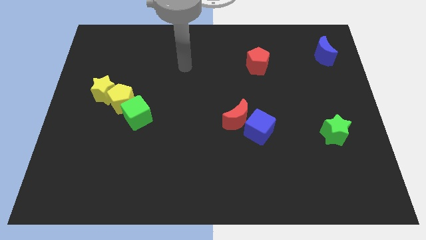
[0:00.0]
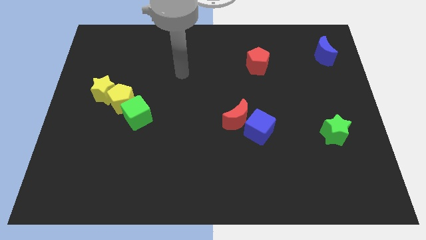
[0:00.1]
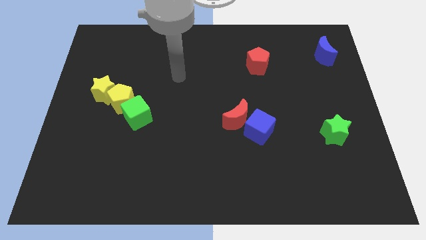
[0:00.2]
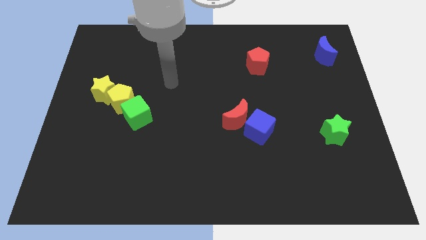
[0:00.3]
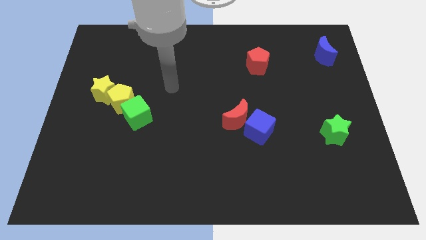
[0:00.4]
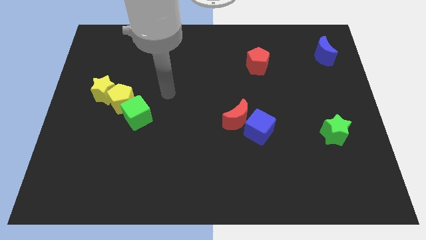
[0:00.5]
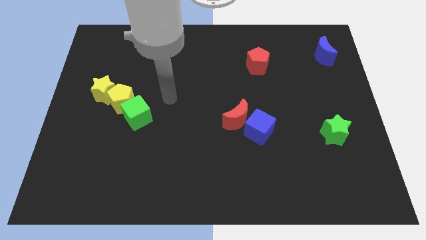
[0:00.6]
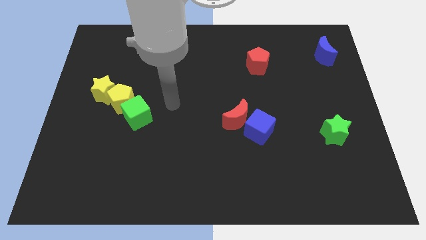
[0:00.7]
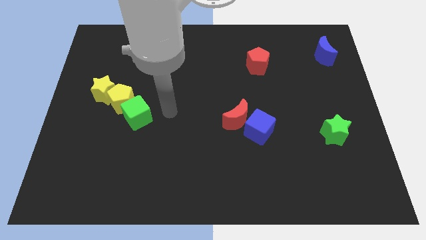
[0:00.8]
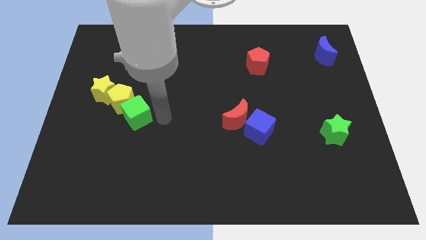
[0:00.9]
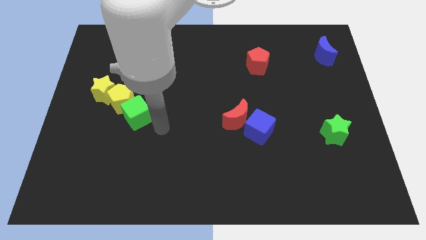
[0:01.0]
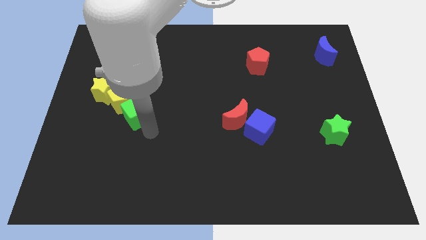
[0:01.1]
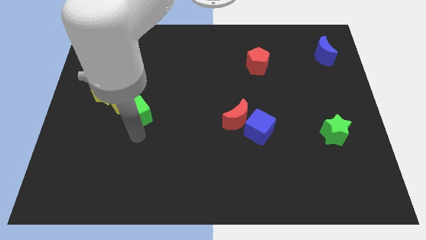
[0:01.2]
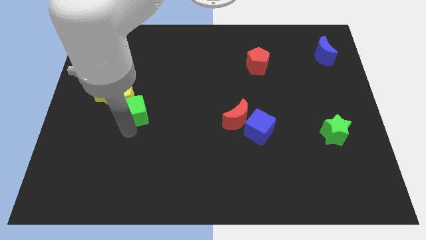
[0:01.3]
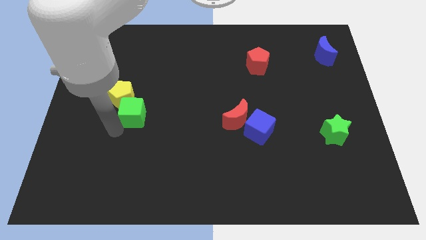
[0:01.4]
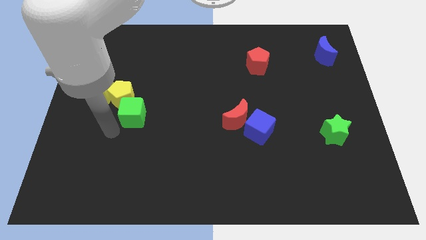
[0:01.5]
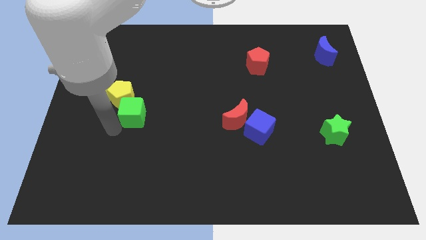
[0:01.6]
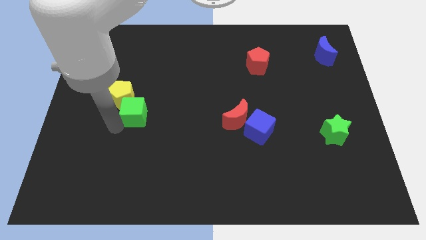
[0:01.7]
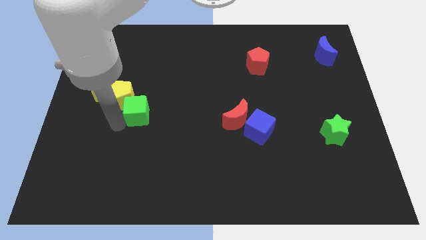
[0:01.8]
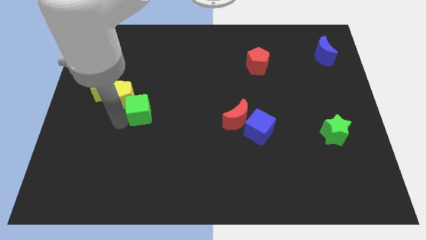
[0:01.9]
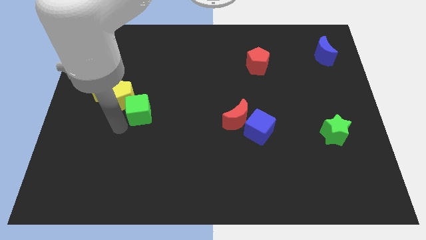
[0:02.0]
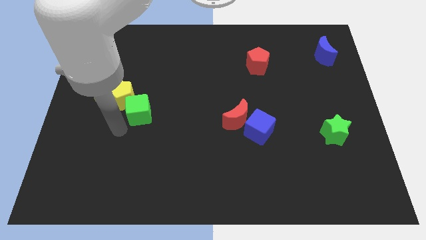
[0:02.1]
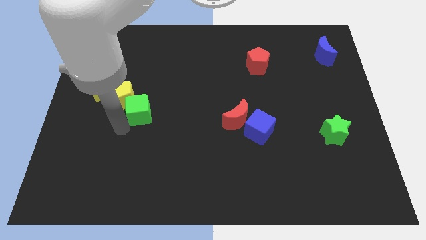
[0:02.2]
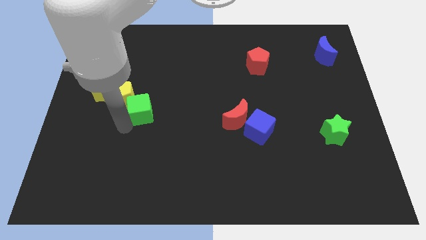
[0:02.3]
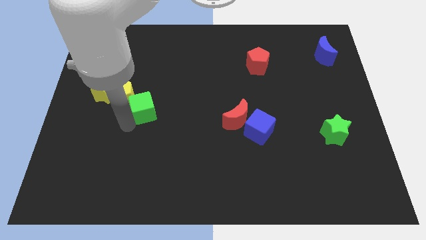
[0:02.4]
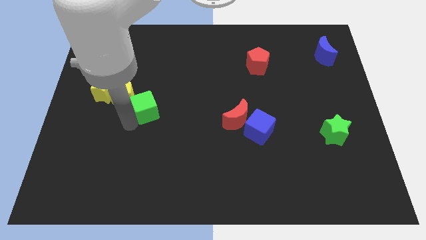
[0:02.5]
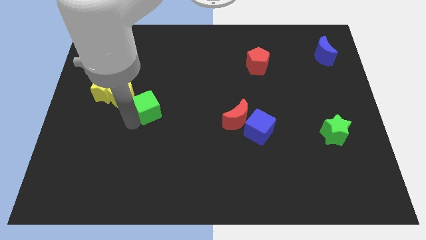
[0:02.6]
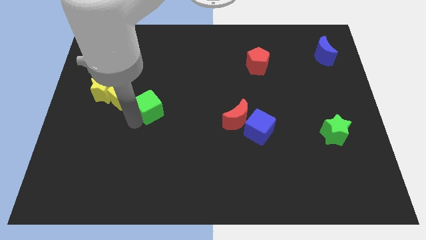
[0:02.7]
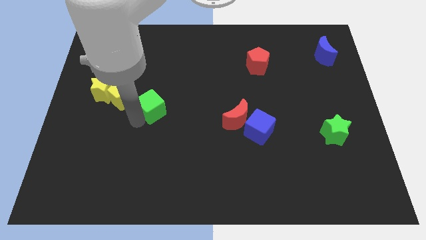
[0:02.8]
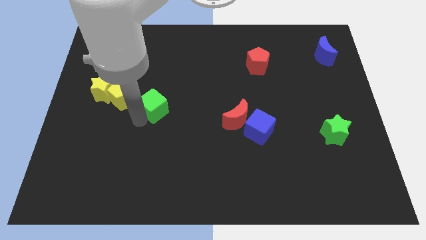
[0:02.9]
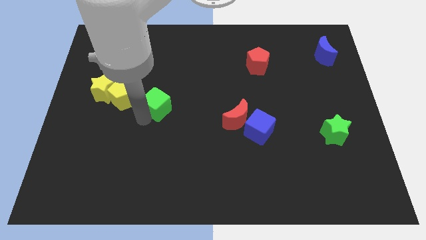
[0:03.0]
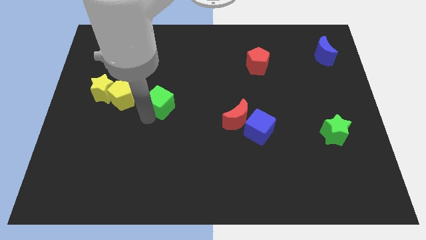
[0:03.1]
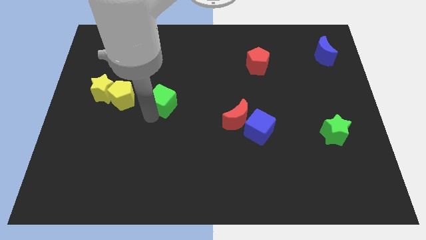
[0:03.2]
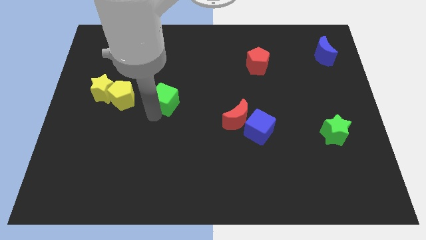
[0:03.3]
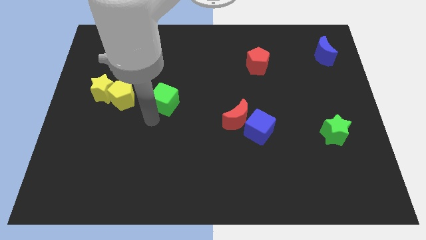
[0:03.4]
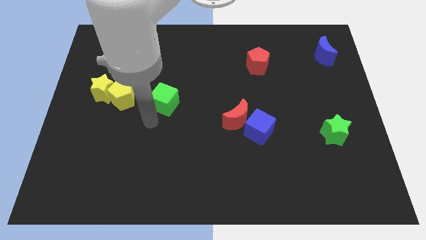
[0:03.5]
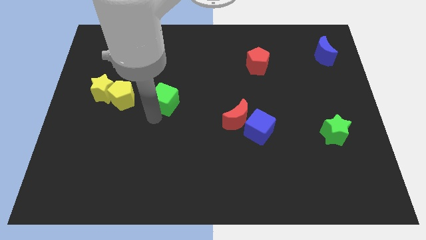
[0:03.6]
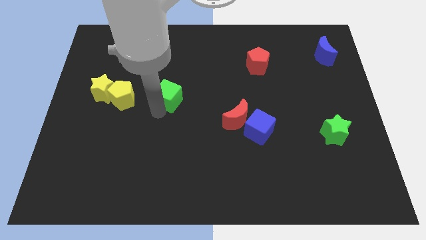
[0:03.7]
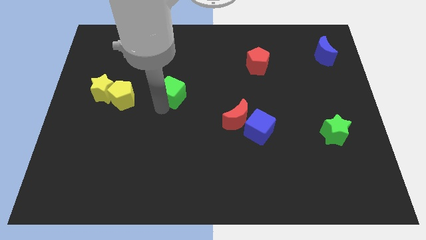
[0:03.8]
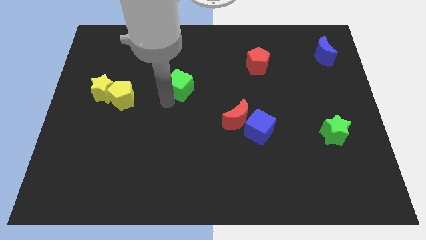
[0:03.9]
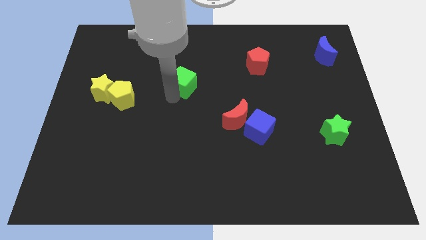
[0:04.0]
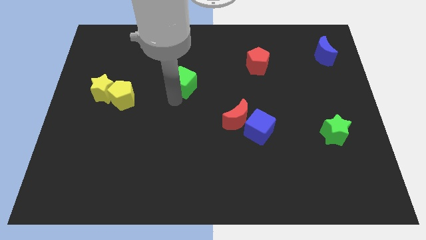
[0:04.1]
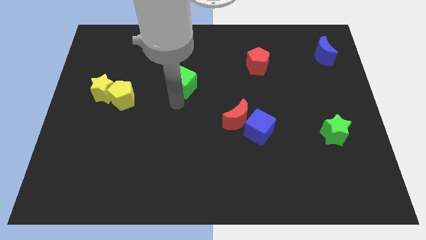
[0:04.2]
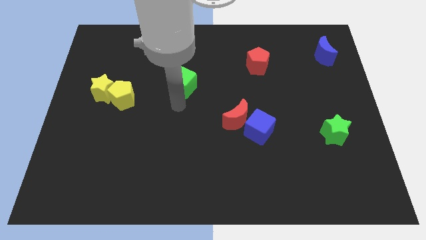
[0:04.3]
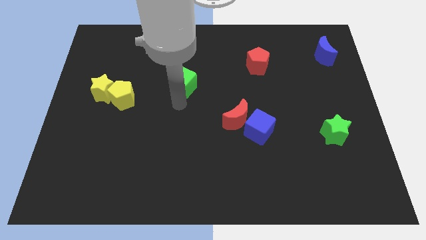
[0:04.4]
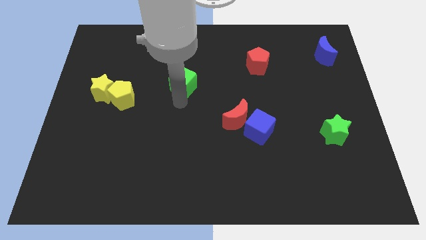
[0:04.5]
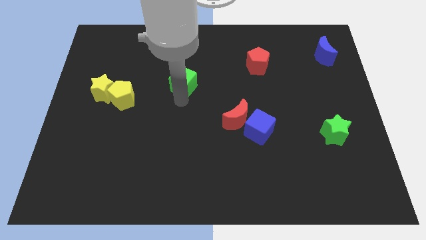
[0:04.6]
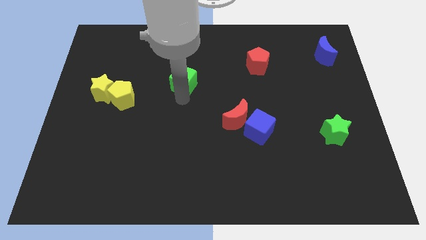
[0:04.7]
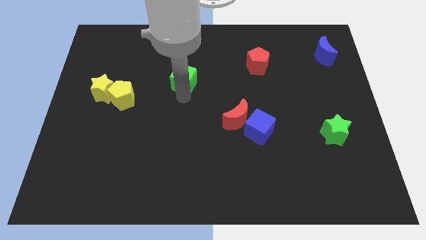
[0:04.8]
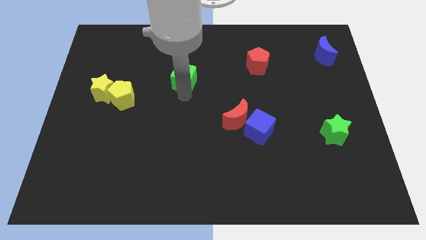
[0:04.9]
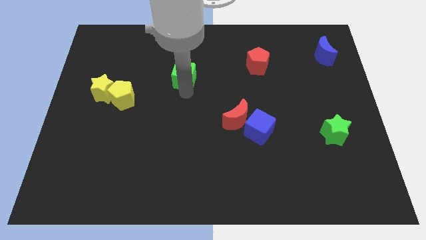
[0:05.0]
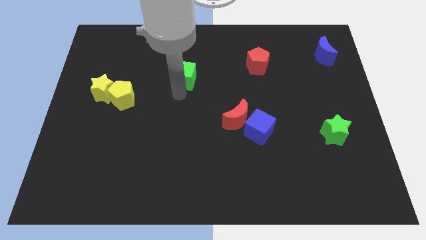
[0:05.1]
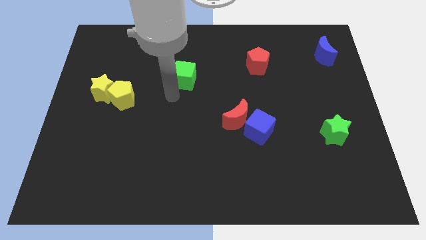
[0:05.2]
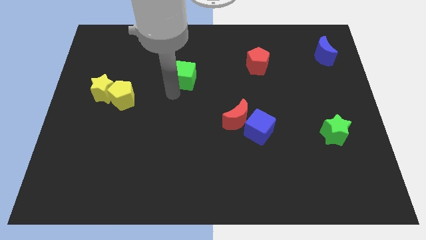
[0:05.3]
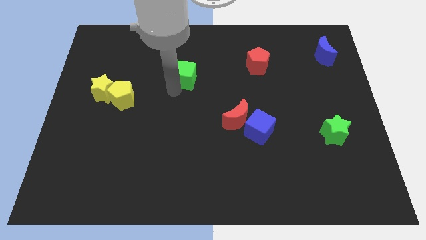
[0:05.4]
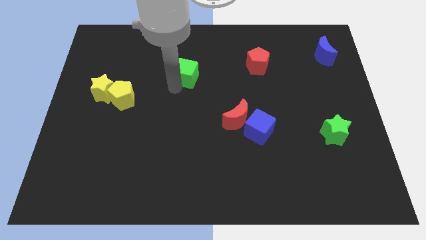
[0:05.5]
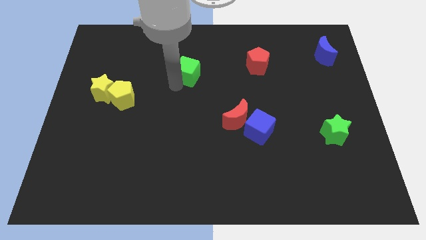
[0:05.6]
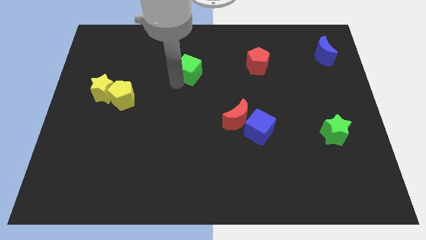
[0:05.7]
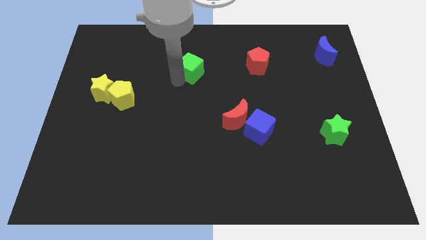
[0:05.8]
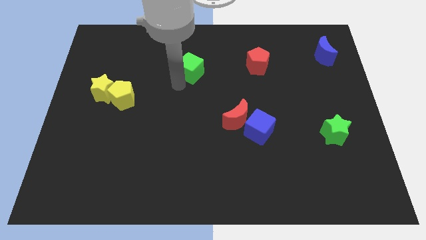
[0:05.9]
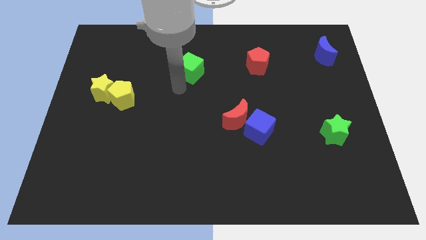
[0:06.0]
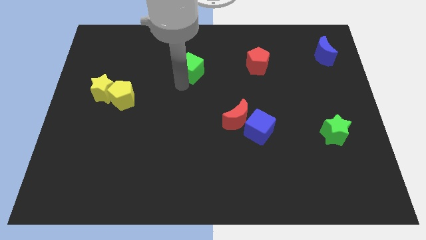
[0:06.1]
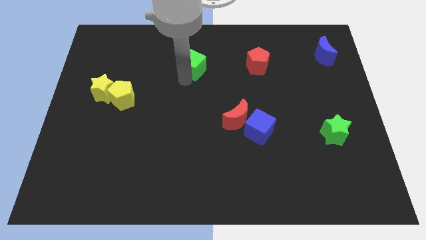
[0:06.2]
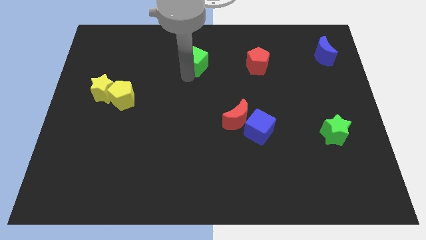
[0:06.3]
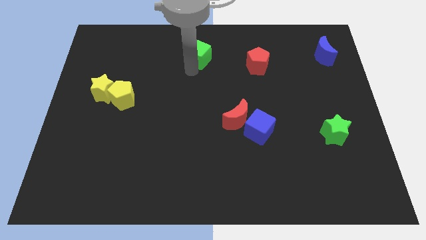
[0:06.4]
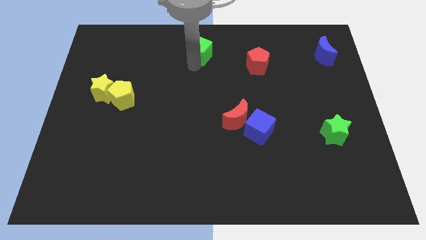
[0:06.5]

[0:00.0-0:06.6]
push the green cube to the top side

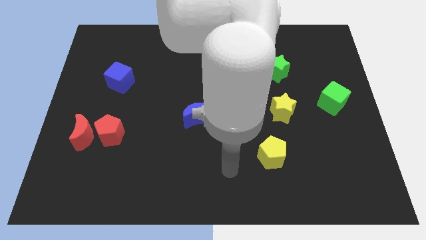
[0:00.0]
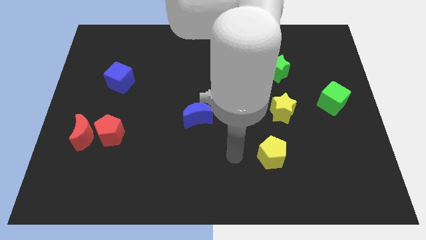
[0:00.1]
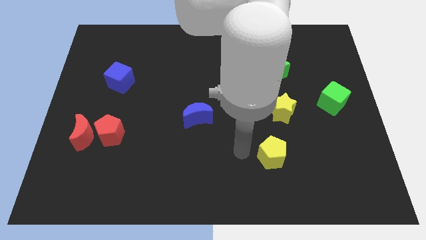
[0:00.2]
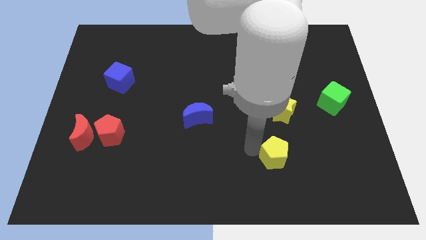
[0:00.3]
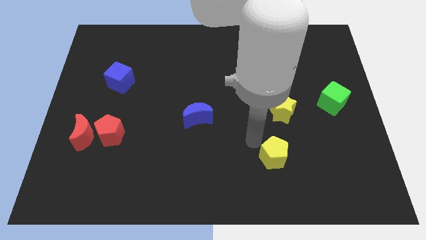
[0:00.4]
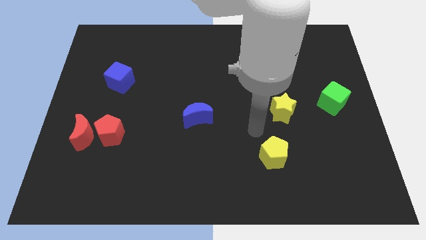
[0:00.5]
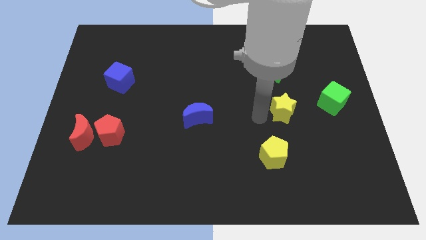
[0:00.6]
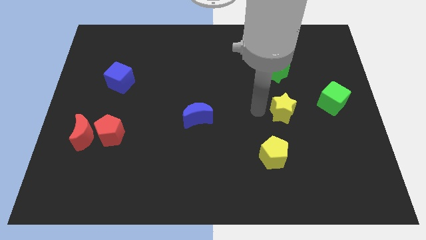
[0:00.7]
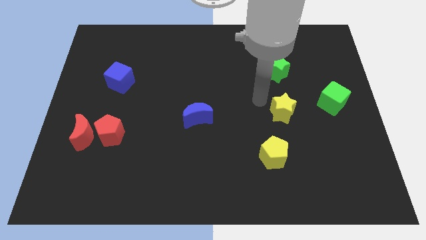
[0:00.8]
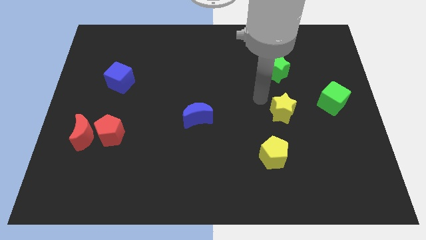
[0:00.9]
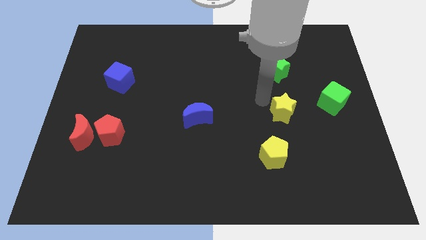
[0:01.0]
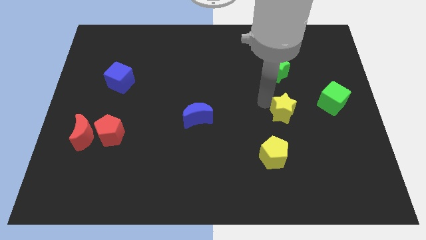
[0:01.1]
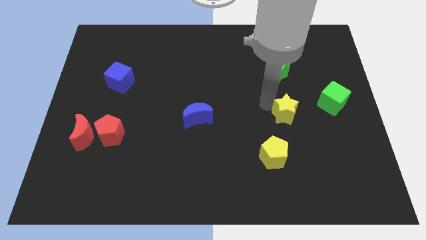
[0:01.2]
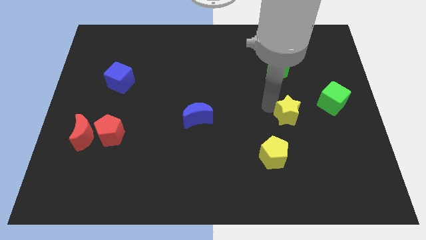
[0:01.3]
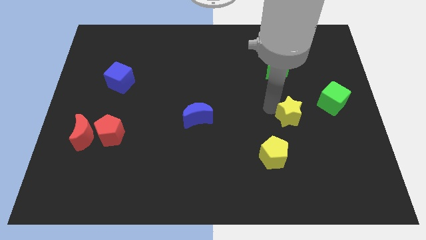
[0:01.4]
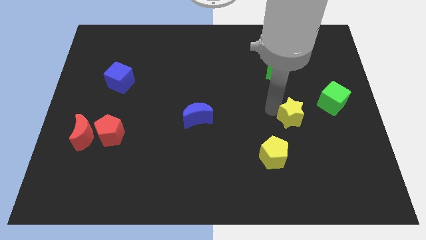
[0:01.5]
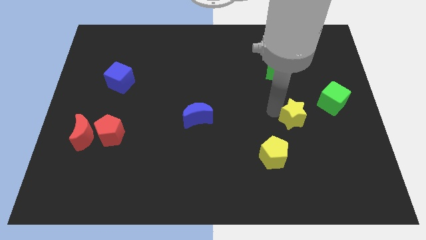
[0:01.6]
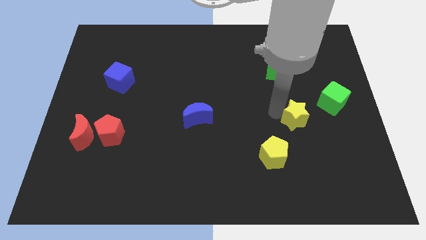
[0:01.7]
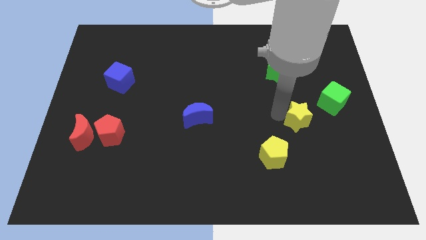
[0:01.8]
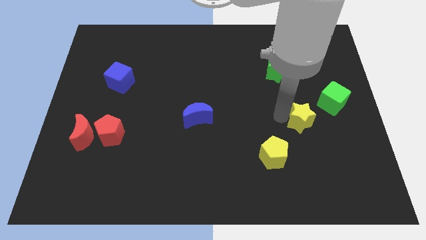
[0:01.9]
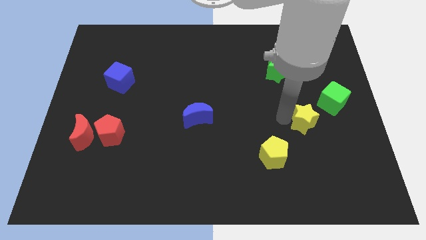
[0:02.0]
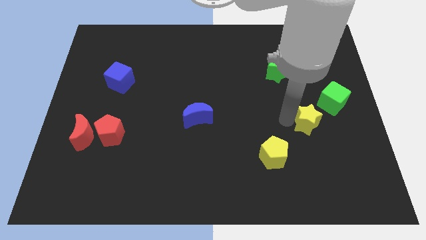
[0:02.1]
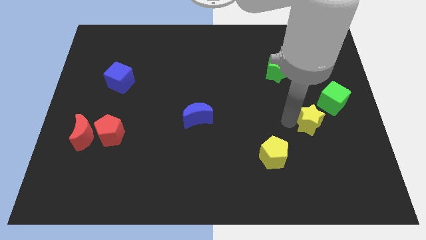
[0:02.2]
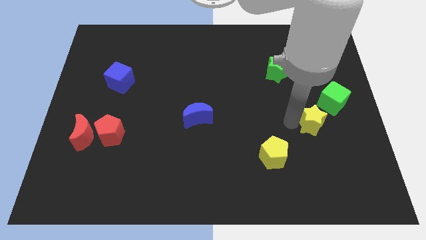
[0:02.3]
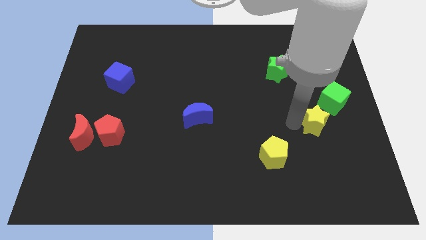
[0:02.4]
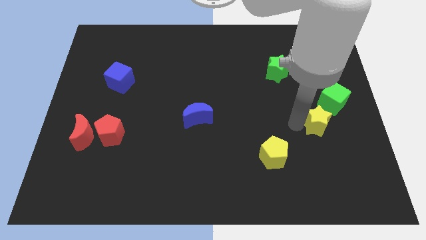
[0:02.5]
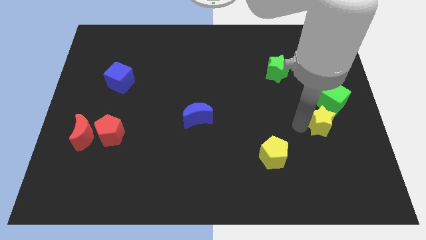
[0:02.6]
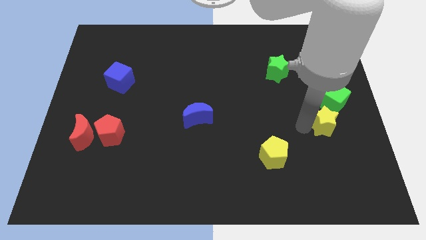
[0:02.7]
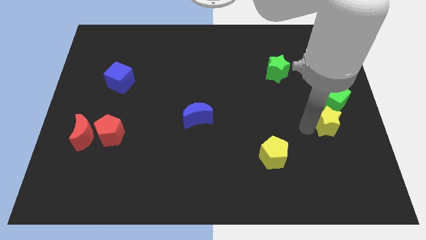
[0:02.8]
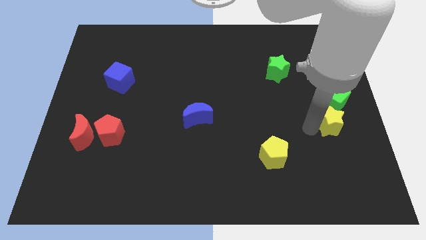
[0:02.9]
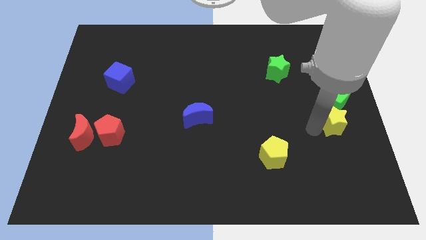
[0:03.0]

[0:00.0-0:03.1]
put the yellow star to the right side of the board
